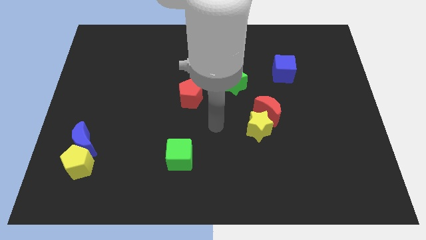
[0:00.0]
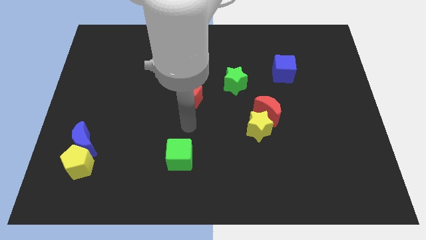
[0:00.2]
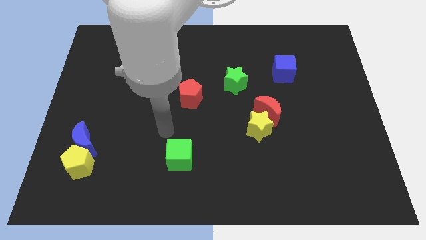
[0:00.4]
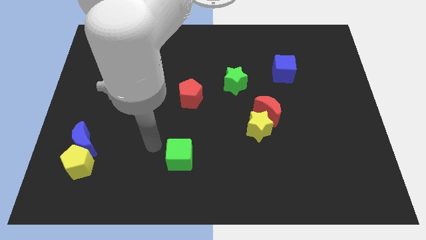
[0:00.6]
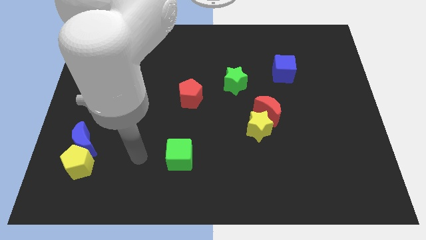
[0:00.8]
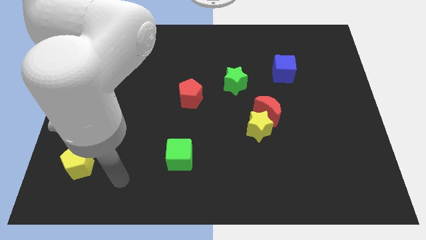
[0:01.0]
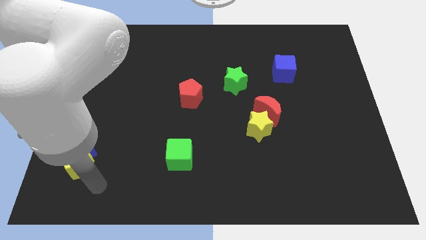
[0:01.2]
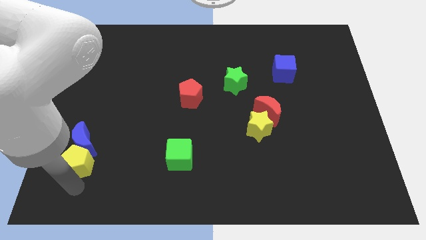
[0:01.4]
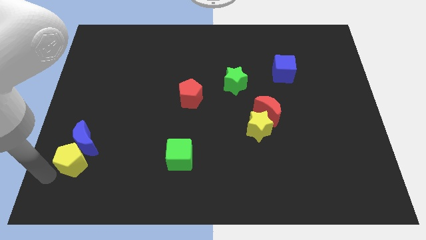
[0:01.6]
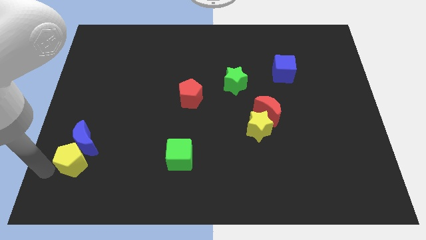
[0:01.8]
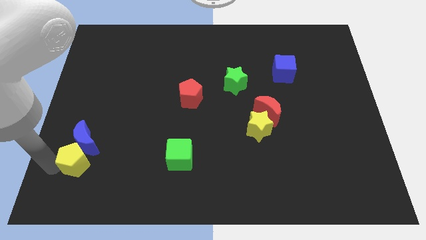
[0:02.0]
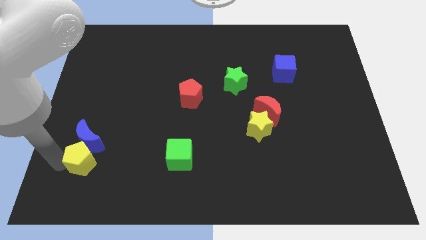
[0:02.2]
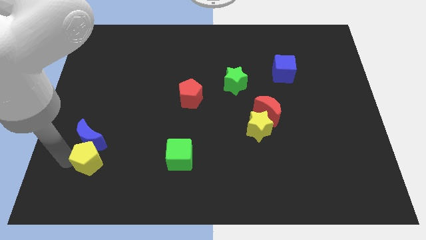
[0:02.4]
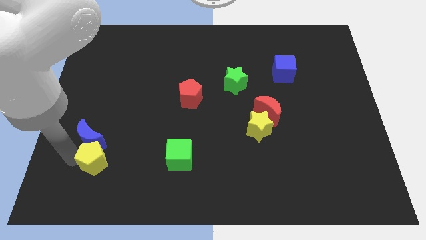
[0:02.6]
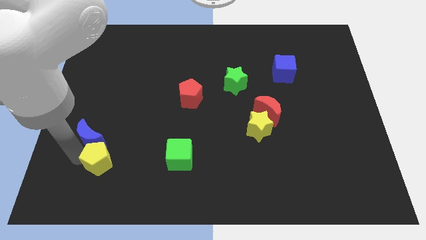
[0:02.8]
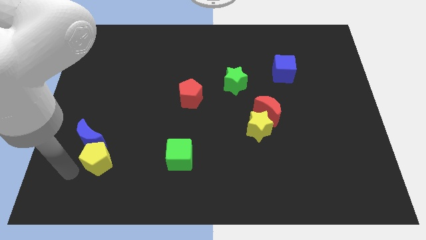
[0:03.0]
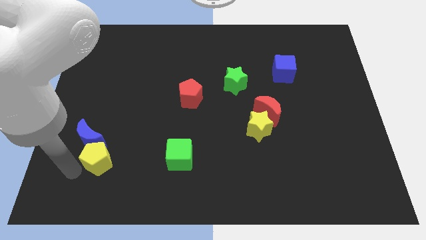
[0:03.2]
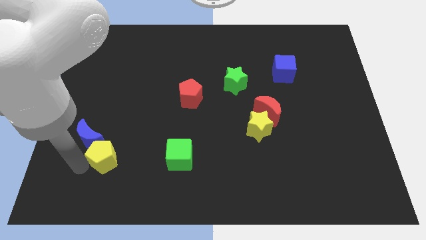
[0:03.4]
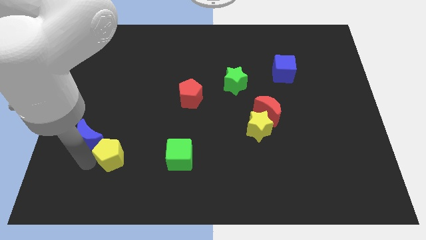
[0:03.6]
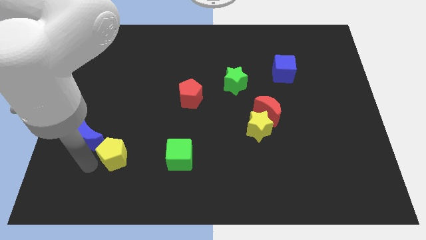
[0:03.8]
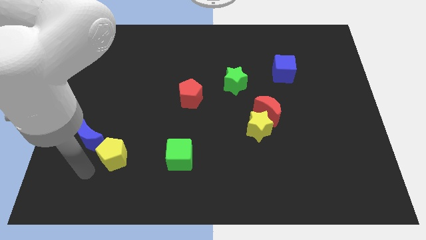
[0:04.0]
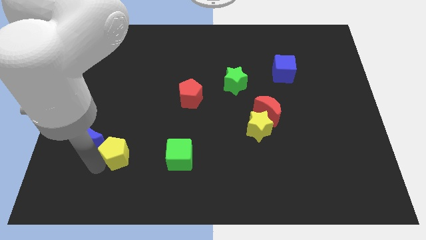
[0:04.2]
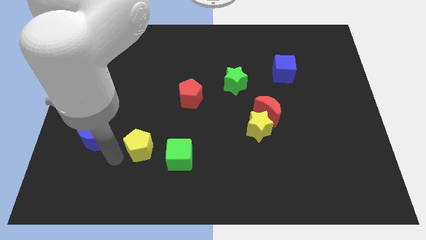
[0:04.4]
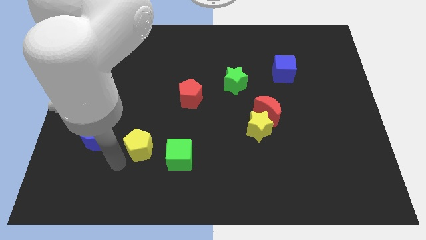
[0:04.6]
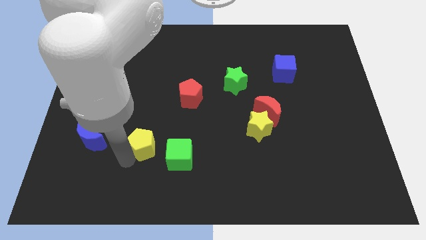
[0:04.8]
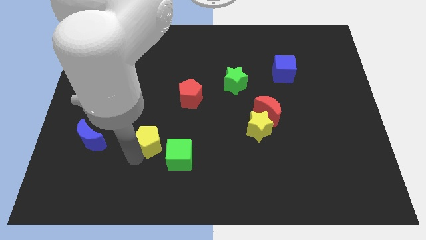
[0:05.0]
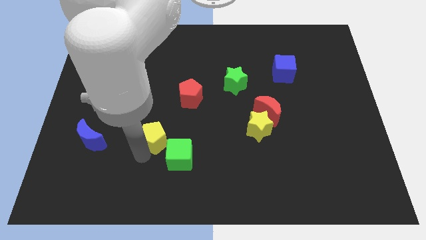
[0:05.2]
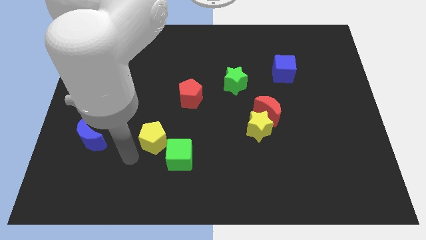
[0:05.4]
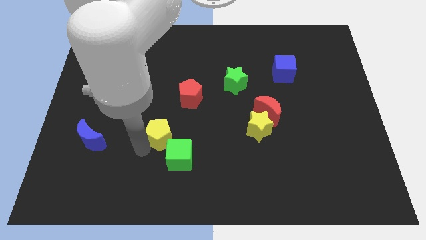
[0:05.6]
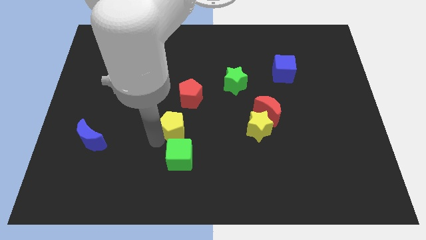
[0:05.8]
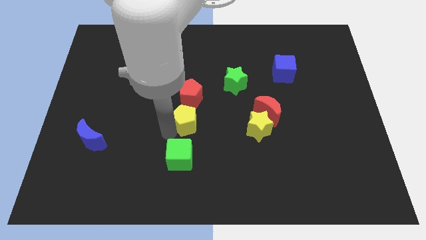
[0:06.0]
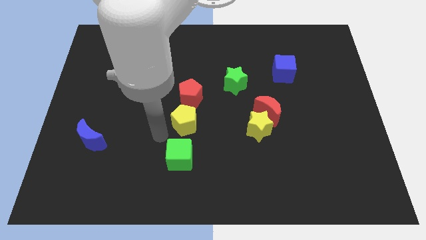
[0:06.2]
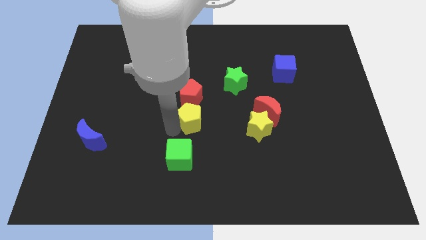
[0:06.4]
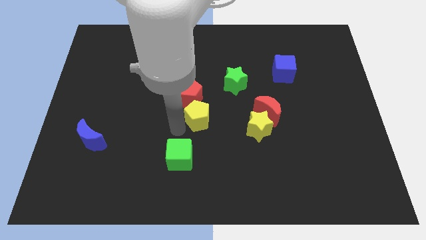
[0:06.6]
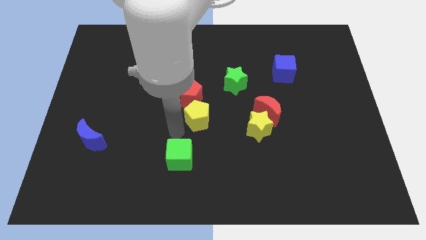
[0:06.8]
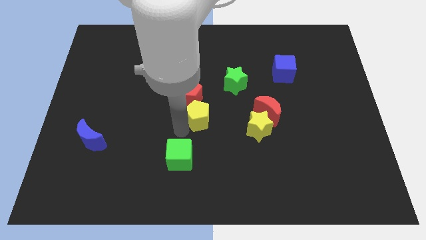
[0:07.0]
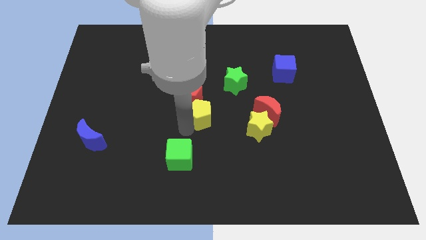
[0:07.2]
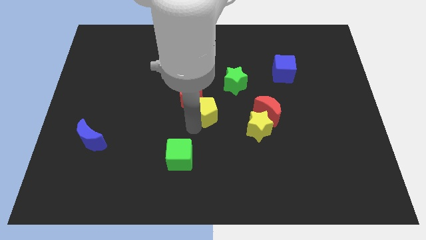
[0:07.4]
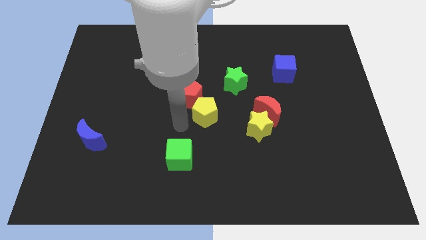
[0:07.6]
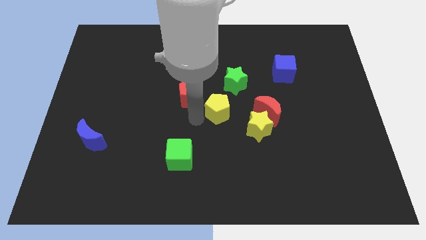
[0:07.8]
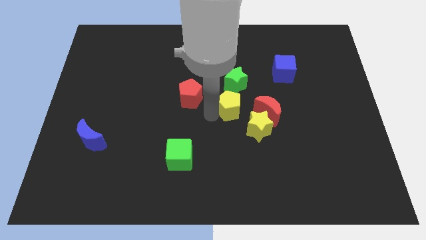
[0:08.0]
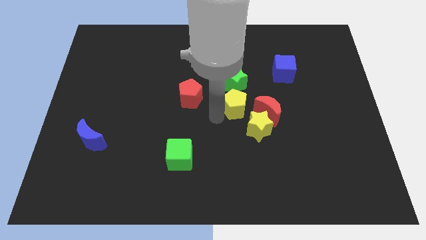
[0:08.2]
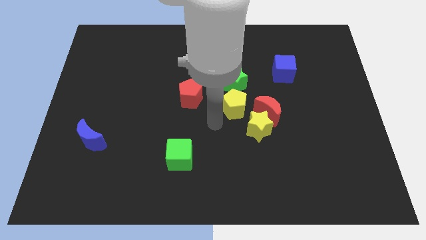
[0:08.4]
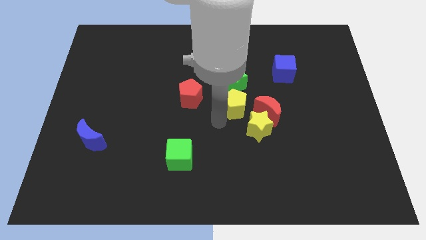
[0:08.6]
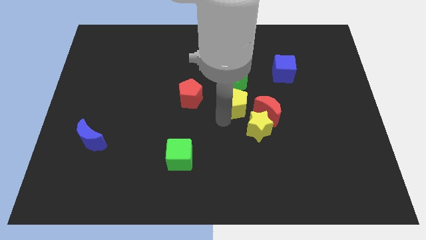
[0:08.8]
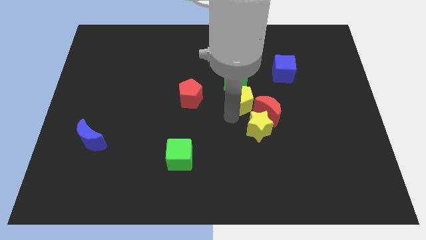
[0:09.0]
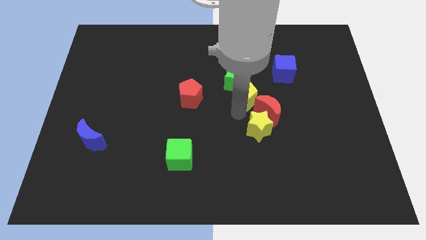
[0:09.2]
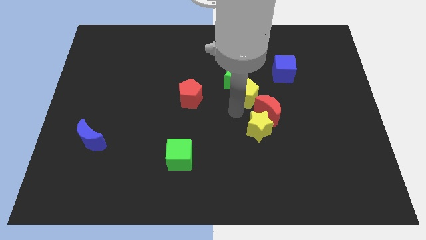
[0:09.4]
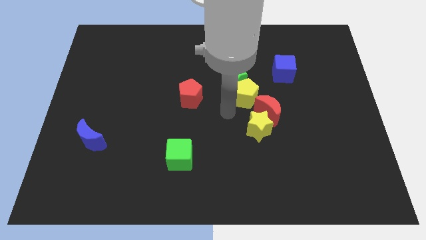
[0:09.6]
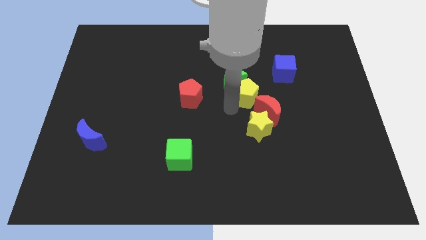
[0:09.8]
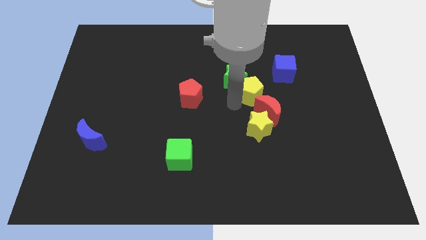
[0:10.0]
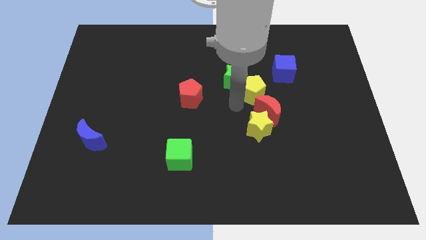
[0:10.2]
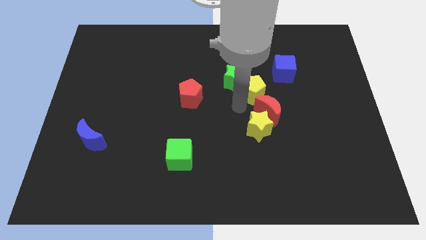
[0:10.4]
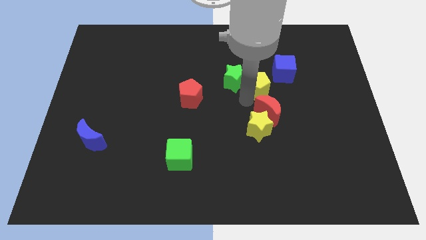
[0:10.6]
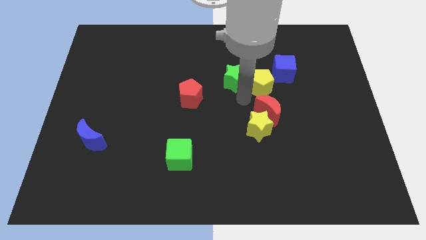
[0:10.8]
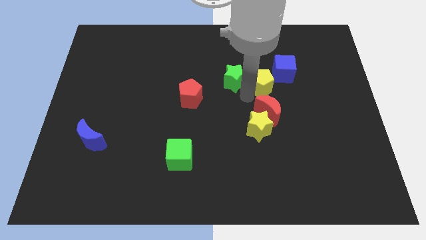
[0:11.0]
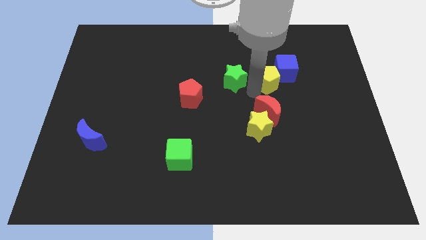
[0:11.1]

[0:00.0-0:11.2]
put the yellow pentagon to the blue cube

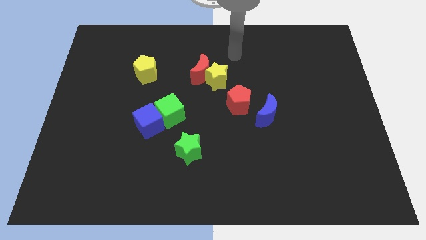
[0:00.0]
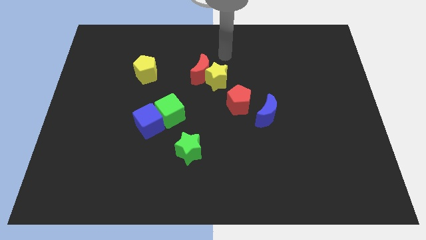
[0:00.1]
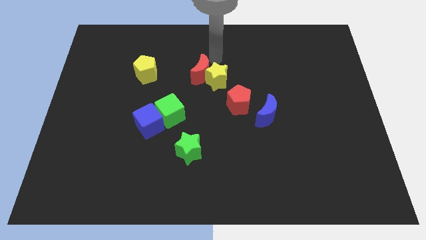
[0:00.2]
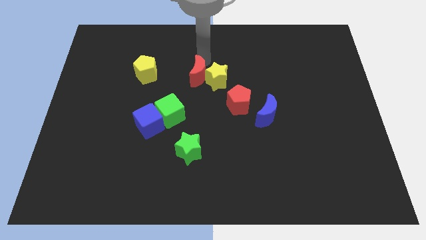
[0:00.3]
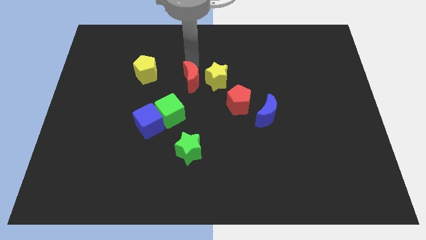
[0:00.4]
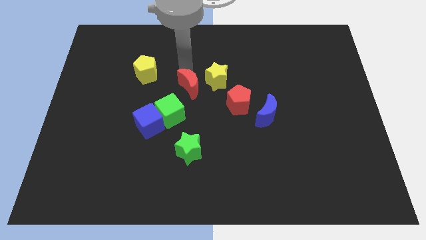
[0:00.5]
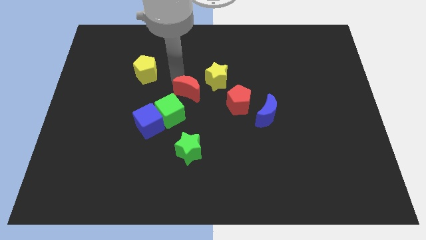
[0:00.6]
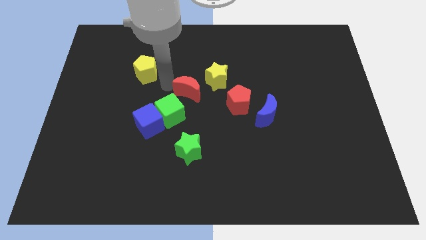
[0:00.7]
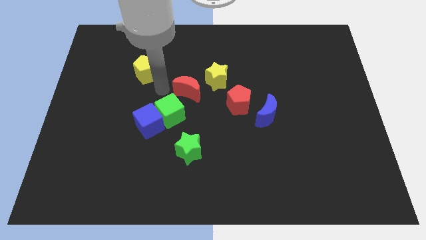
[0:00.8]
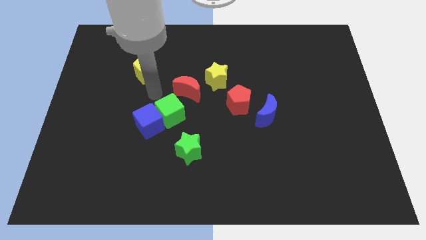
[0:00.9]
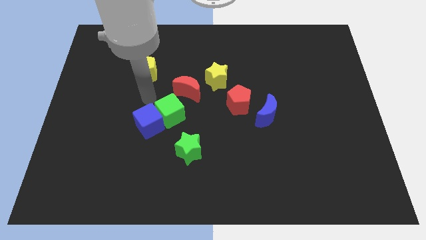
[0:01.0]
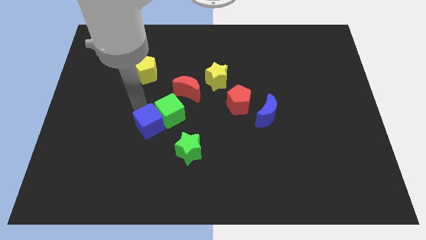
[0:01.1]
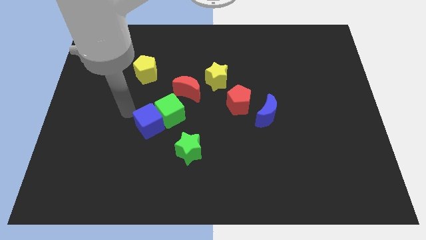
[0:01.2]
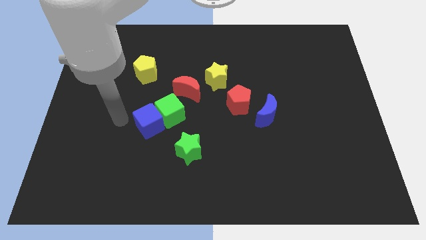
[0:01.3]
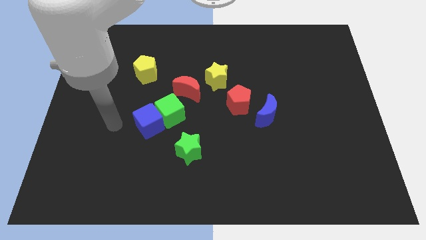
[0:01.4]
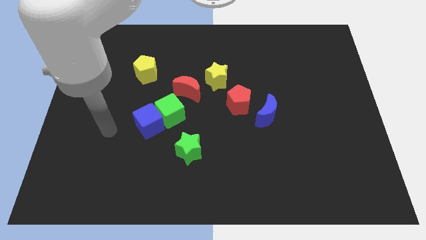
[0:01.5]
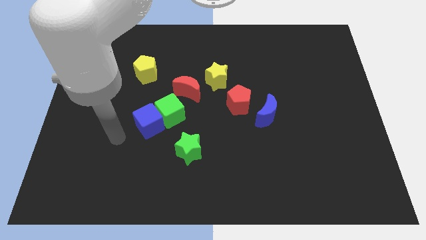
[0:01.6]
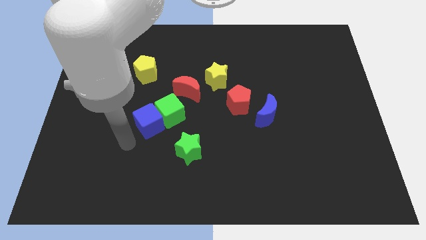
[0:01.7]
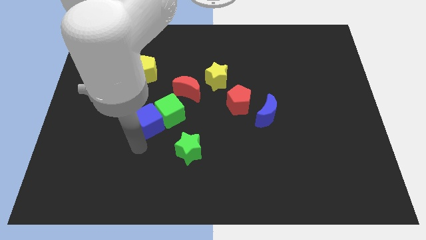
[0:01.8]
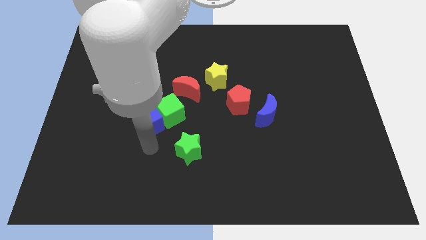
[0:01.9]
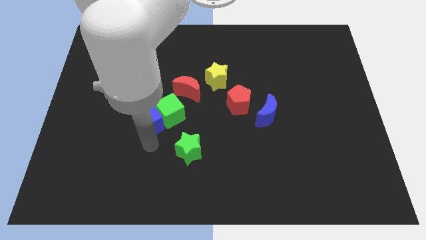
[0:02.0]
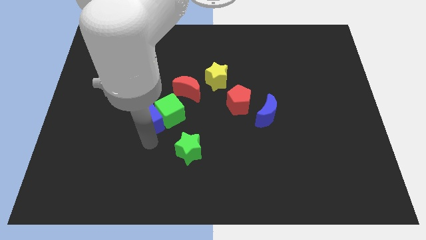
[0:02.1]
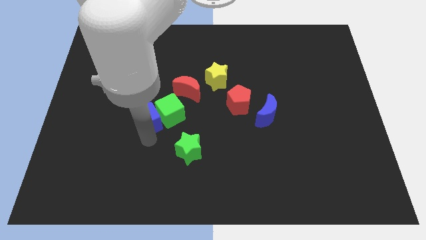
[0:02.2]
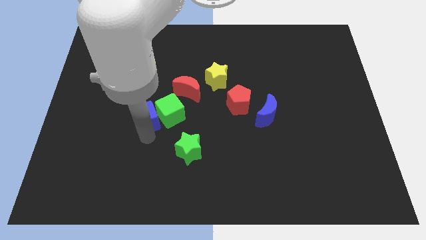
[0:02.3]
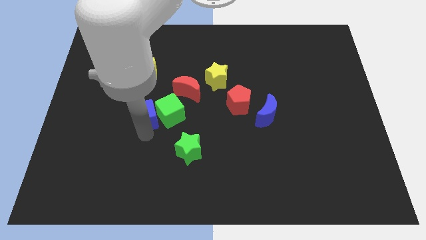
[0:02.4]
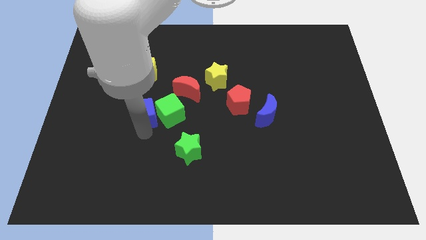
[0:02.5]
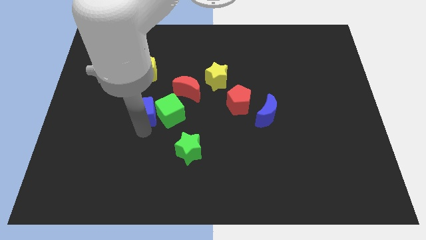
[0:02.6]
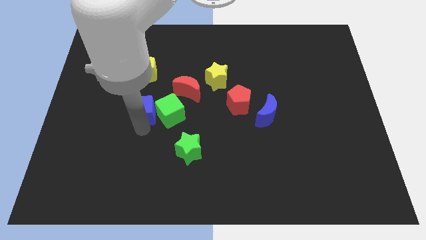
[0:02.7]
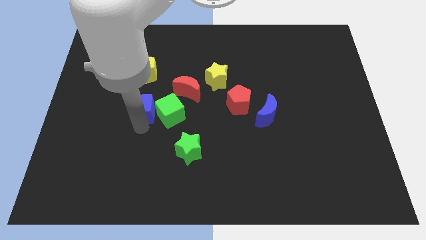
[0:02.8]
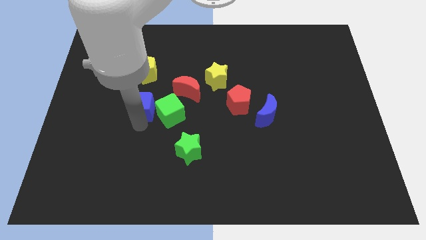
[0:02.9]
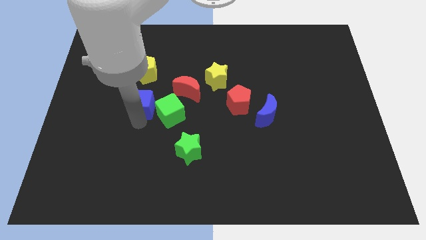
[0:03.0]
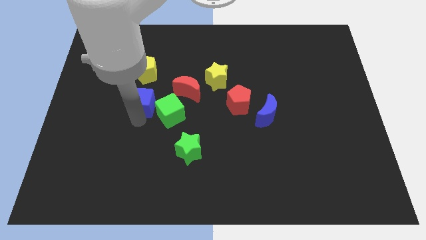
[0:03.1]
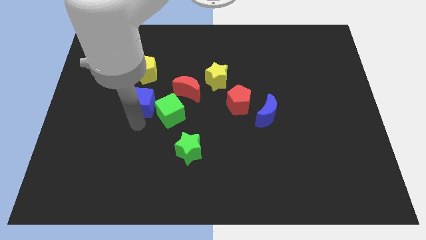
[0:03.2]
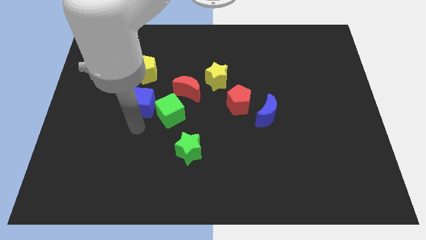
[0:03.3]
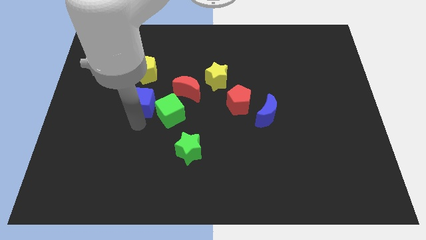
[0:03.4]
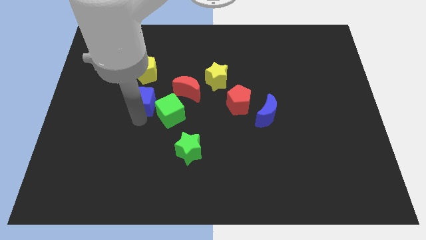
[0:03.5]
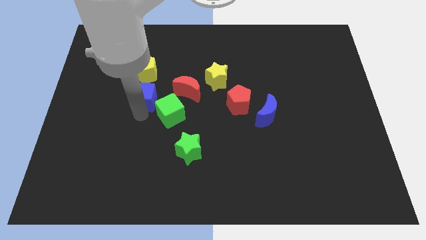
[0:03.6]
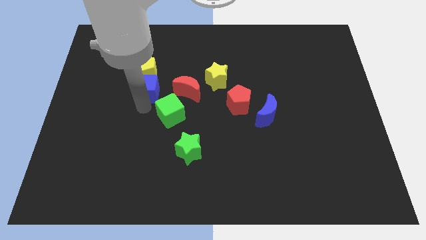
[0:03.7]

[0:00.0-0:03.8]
put the blue cube next to the yellow pentagon
